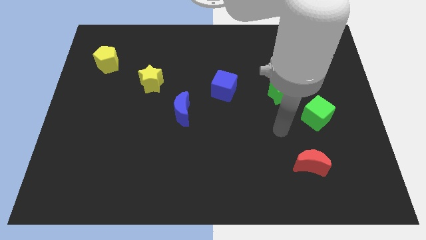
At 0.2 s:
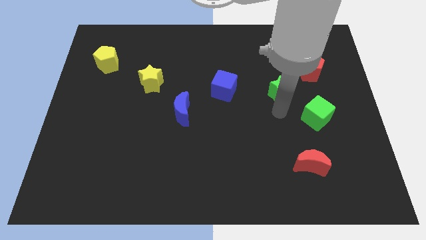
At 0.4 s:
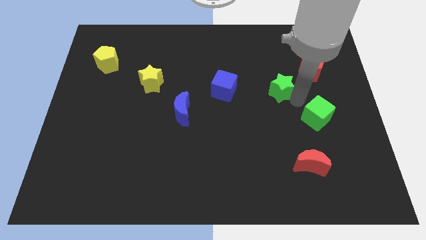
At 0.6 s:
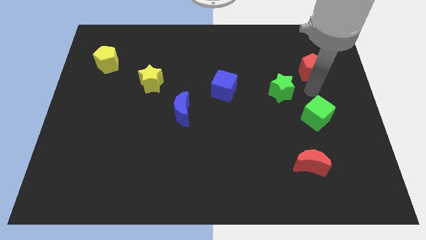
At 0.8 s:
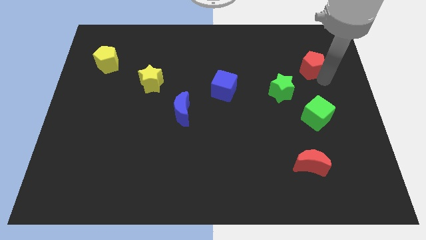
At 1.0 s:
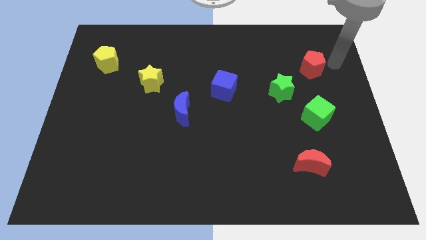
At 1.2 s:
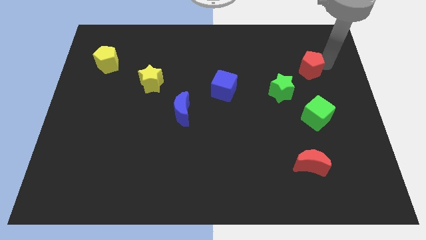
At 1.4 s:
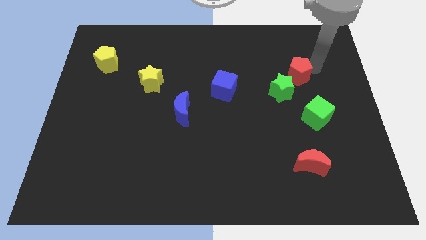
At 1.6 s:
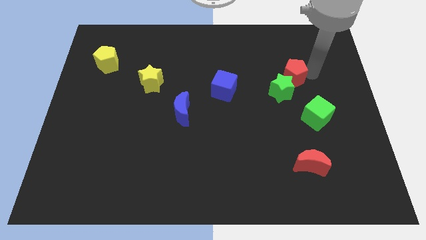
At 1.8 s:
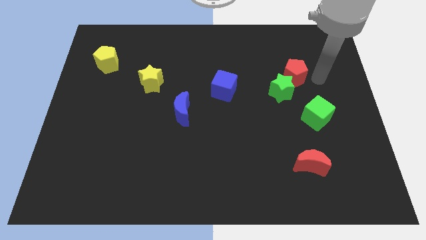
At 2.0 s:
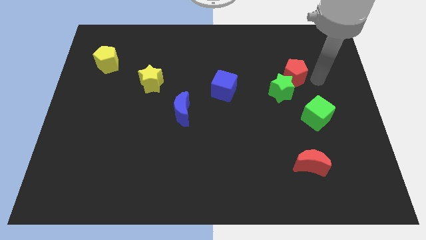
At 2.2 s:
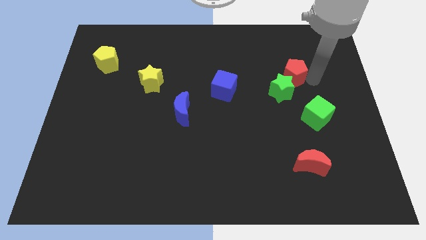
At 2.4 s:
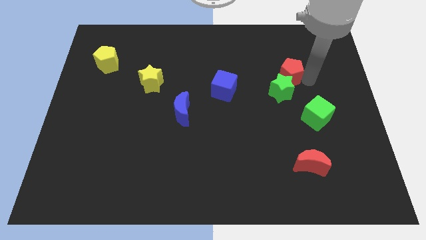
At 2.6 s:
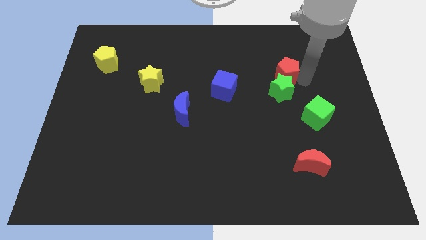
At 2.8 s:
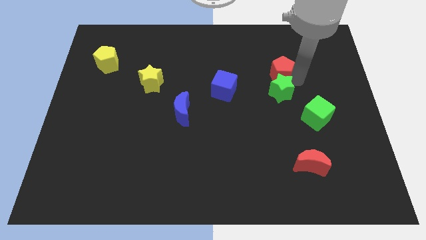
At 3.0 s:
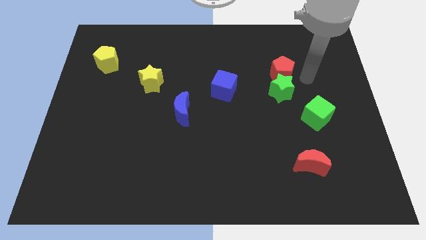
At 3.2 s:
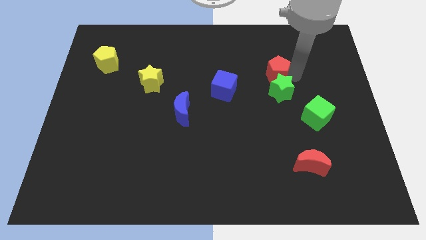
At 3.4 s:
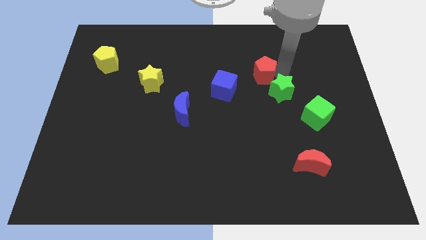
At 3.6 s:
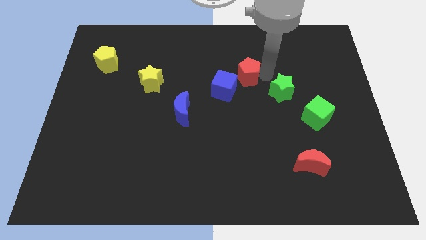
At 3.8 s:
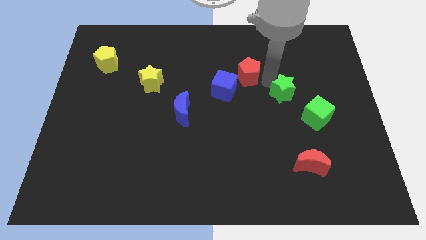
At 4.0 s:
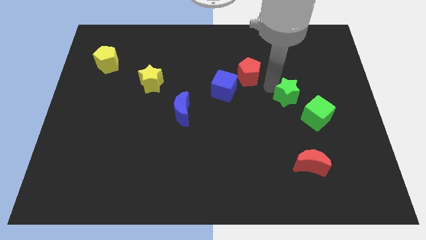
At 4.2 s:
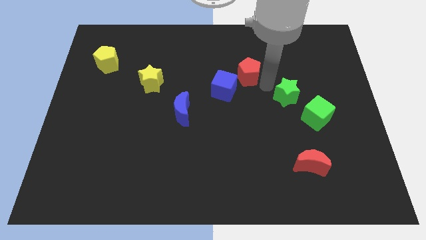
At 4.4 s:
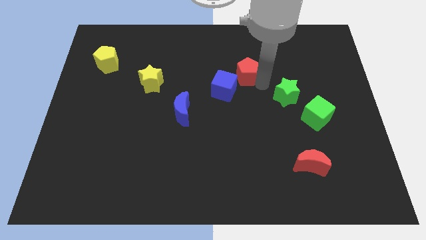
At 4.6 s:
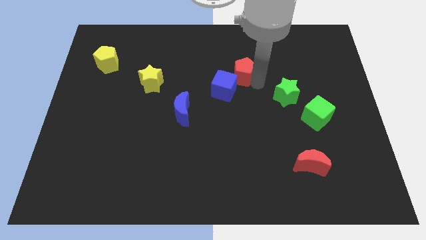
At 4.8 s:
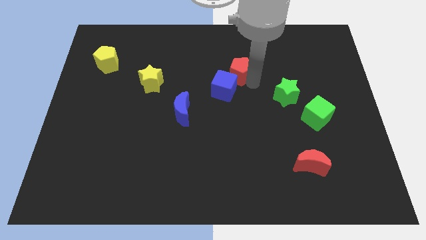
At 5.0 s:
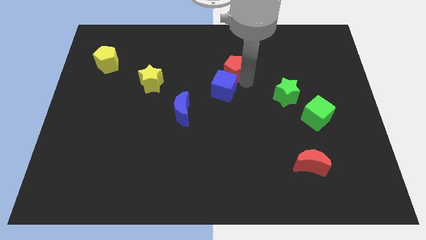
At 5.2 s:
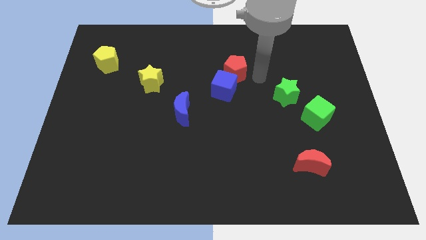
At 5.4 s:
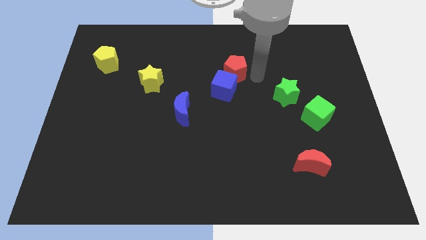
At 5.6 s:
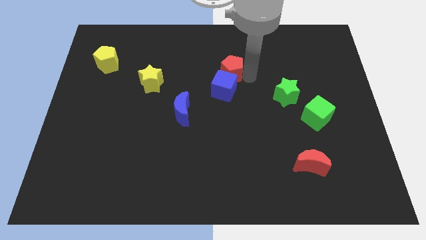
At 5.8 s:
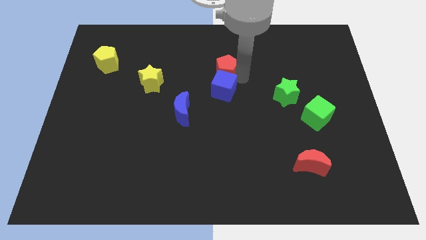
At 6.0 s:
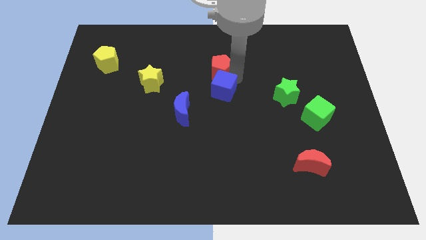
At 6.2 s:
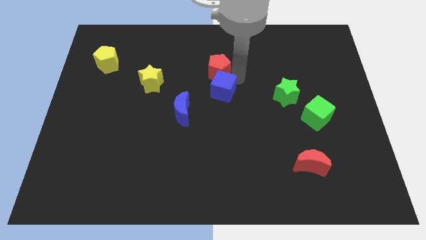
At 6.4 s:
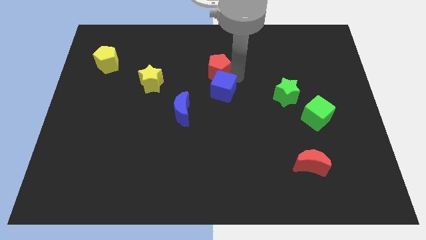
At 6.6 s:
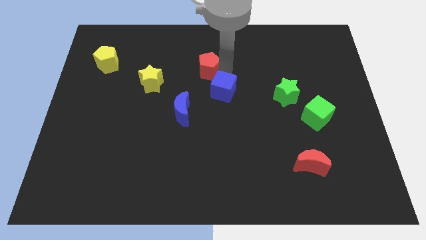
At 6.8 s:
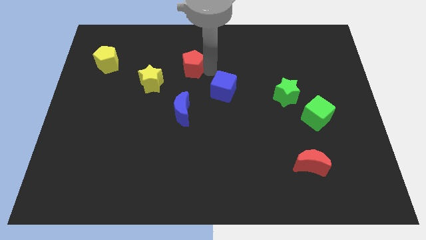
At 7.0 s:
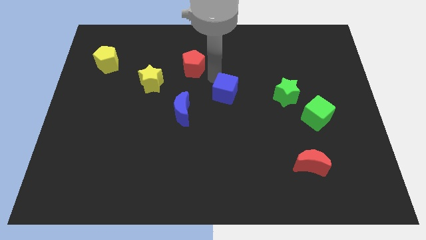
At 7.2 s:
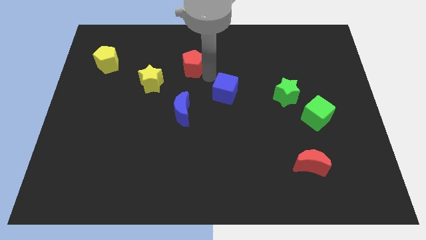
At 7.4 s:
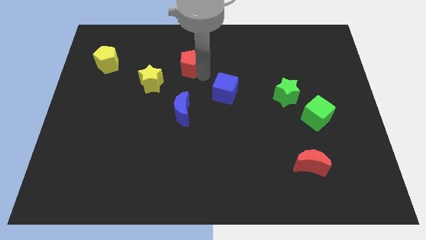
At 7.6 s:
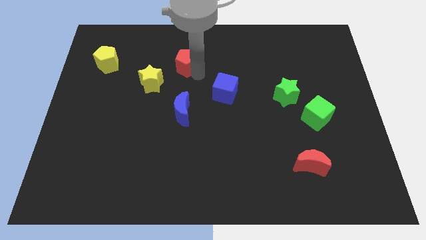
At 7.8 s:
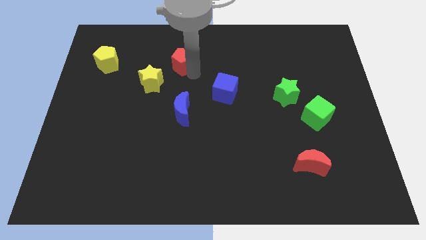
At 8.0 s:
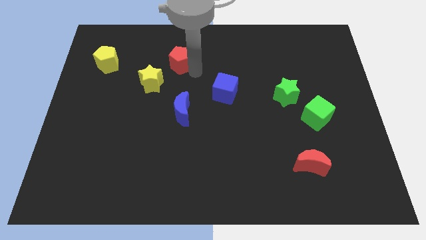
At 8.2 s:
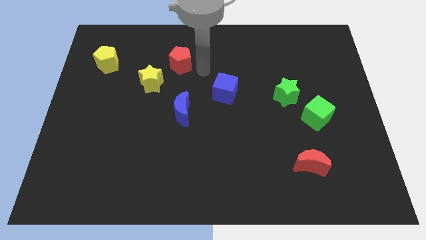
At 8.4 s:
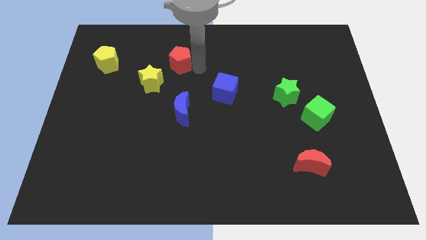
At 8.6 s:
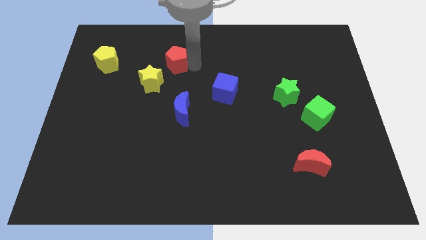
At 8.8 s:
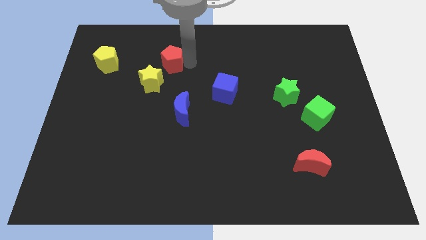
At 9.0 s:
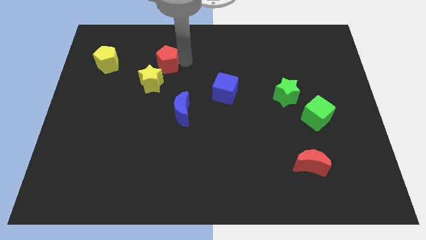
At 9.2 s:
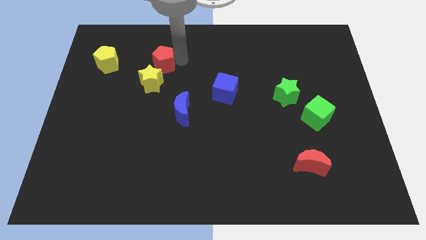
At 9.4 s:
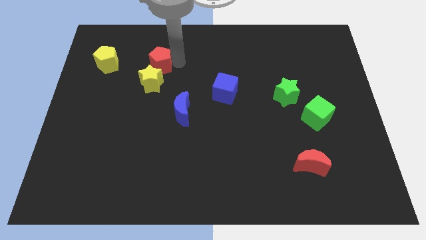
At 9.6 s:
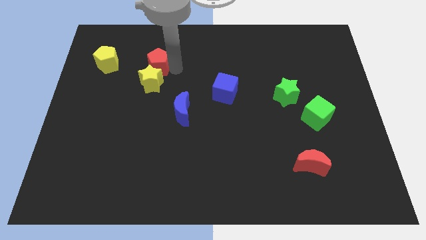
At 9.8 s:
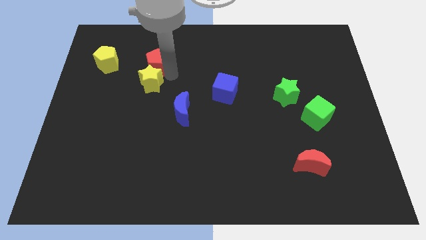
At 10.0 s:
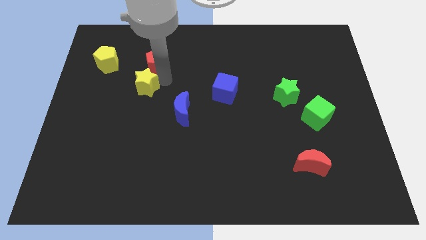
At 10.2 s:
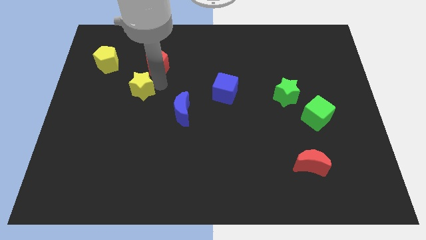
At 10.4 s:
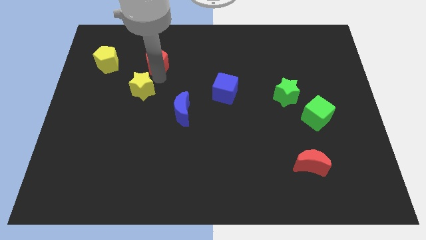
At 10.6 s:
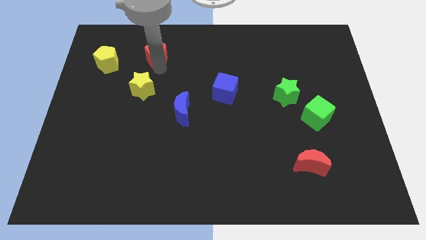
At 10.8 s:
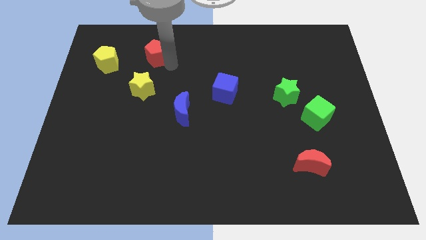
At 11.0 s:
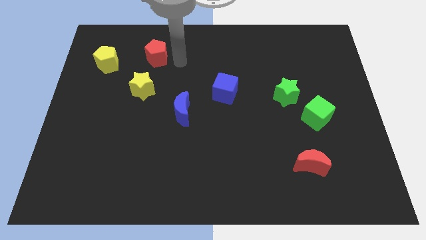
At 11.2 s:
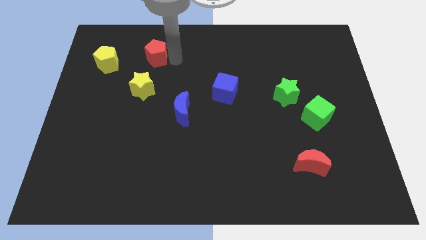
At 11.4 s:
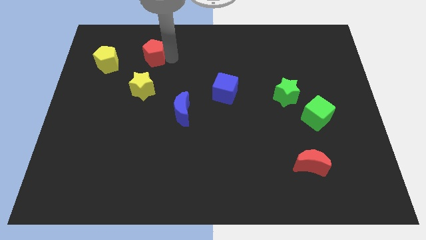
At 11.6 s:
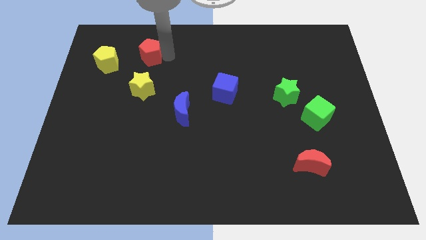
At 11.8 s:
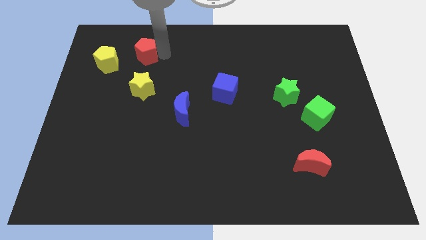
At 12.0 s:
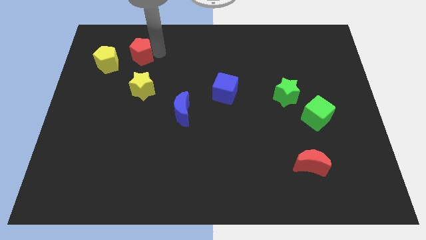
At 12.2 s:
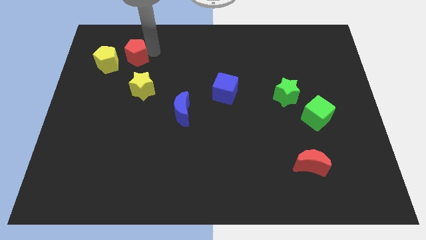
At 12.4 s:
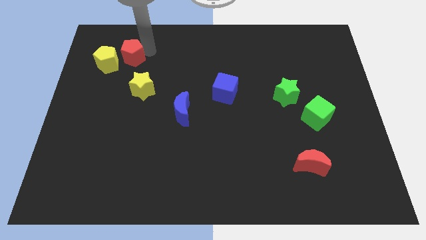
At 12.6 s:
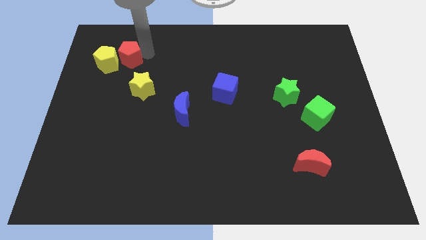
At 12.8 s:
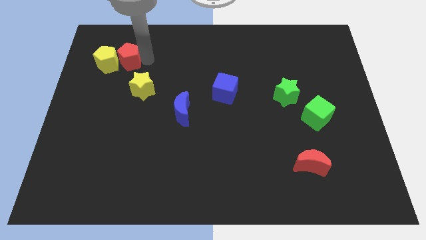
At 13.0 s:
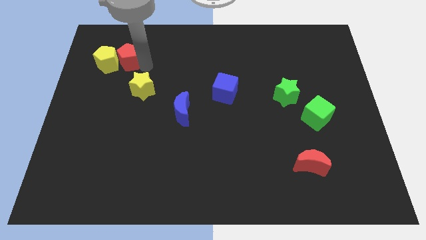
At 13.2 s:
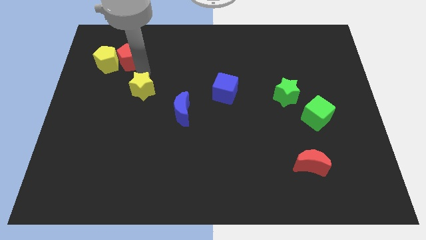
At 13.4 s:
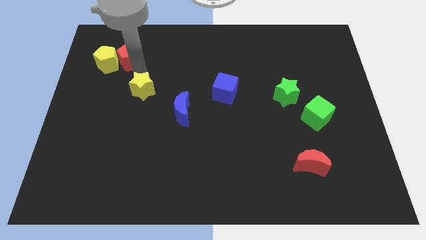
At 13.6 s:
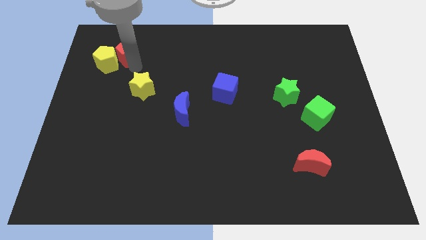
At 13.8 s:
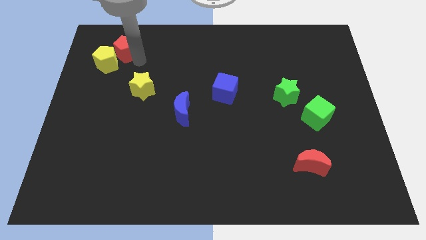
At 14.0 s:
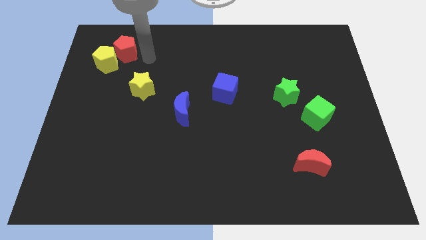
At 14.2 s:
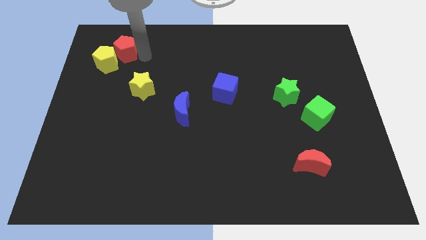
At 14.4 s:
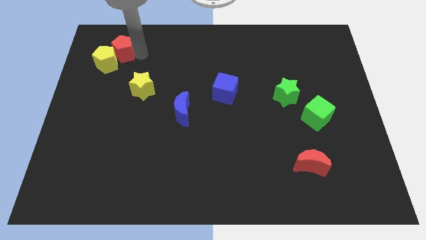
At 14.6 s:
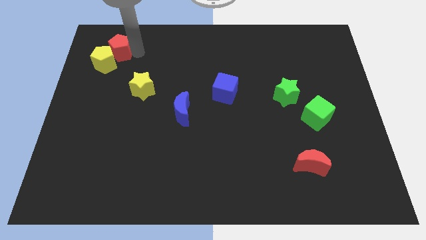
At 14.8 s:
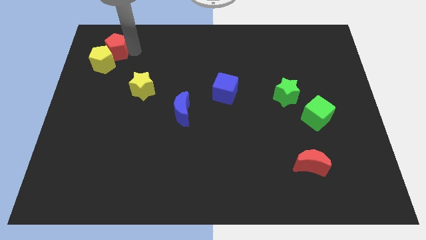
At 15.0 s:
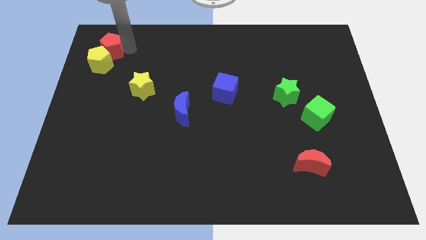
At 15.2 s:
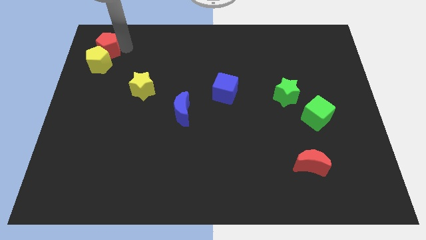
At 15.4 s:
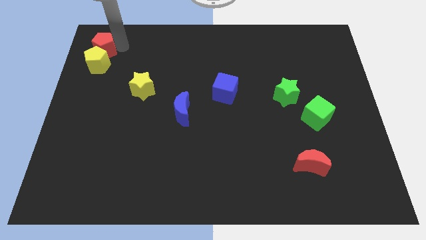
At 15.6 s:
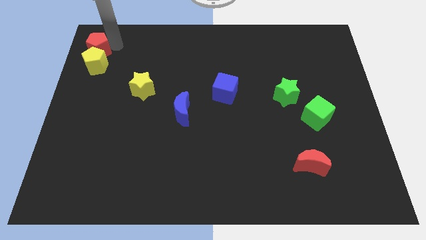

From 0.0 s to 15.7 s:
move the red pentagon to the top left of the board

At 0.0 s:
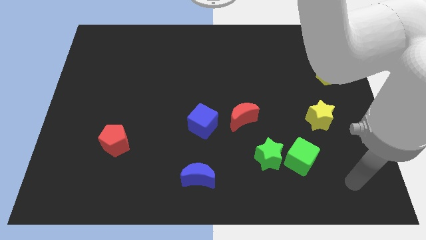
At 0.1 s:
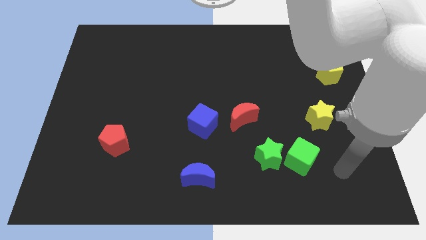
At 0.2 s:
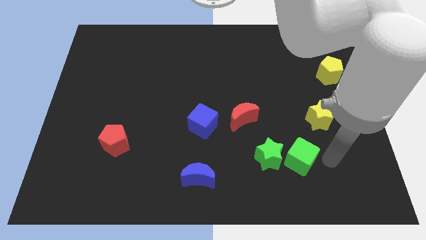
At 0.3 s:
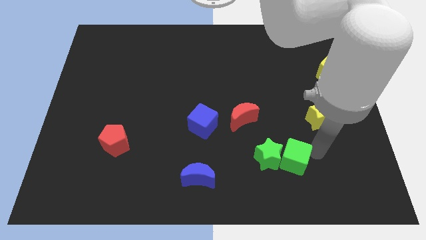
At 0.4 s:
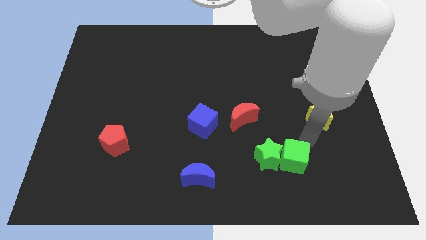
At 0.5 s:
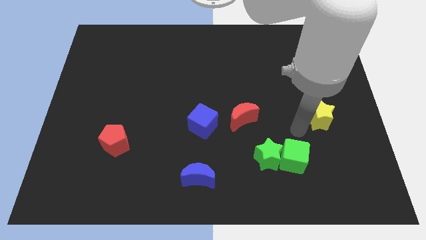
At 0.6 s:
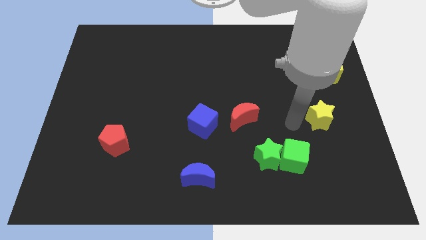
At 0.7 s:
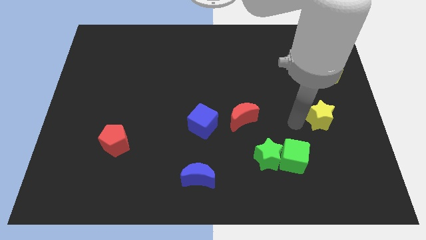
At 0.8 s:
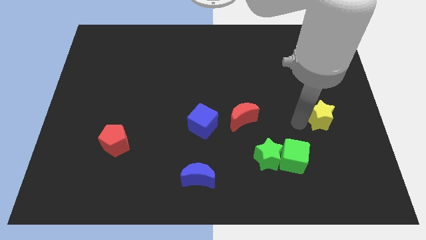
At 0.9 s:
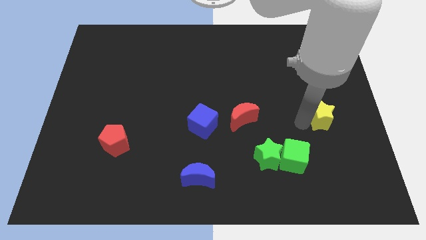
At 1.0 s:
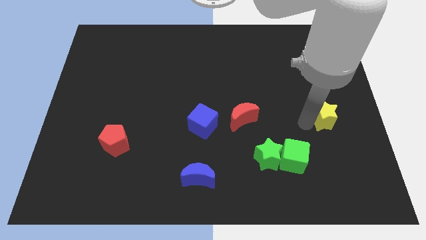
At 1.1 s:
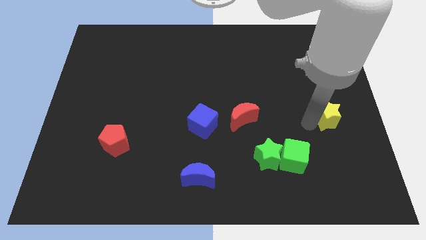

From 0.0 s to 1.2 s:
push the yellow star to the right side of the board
